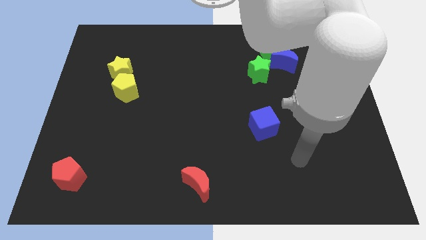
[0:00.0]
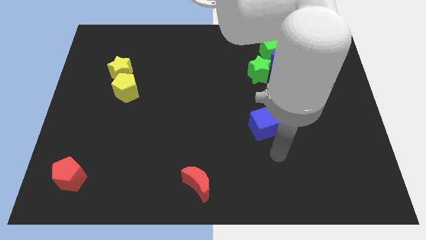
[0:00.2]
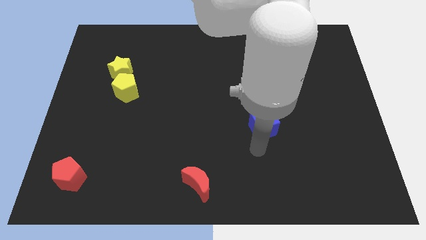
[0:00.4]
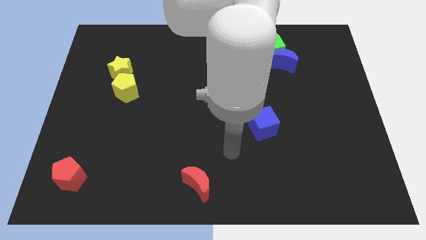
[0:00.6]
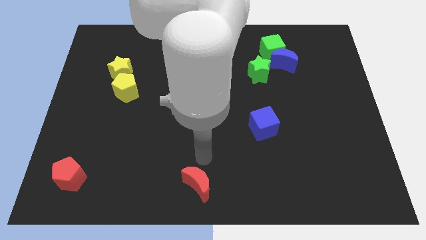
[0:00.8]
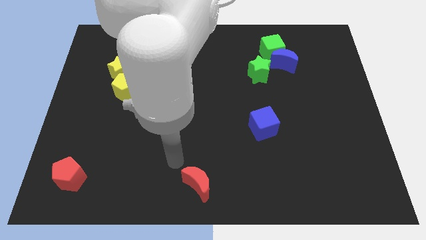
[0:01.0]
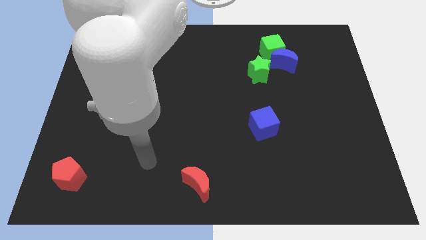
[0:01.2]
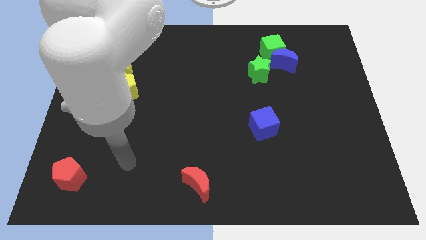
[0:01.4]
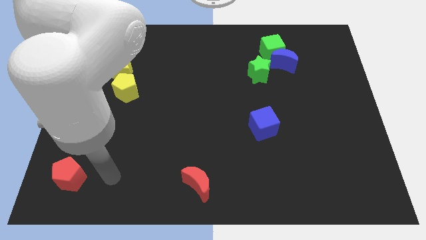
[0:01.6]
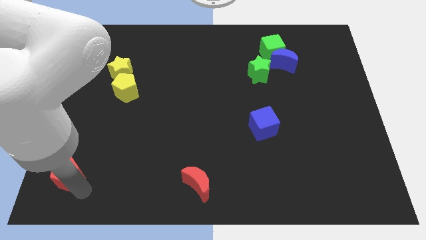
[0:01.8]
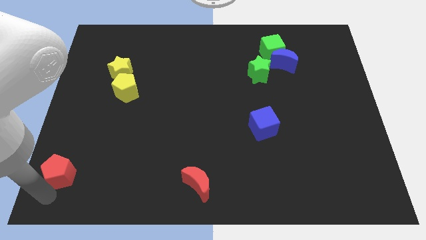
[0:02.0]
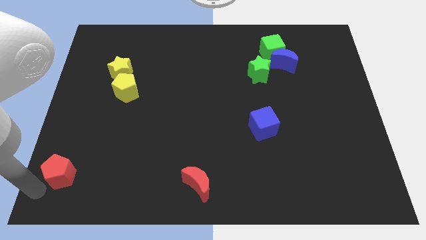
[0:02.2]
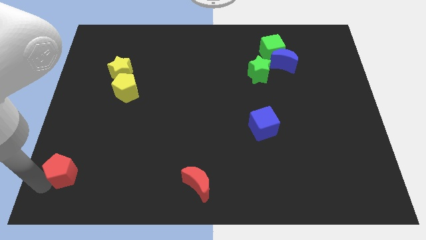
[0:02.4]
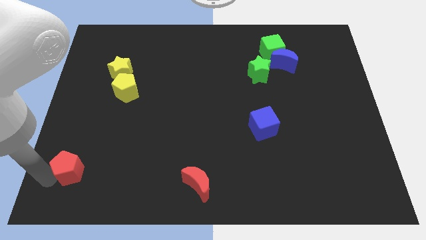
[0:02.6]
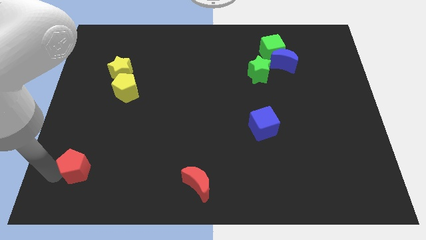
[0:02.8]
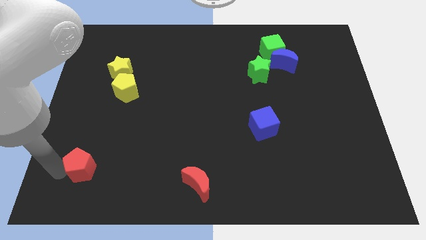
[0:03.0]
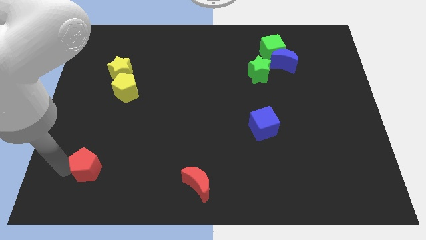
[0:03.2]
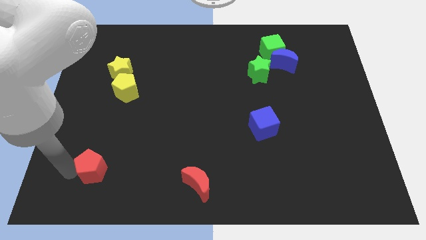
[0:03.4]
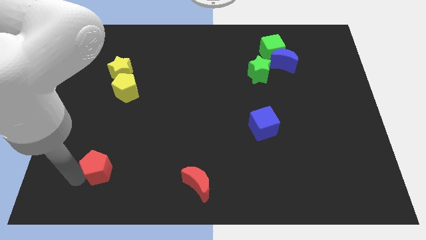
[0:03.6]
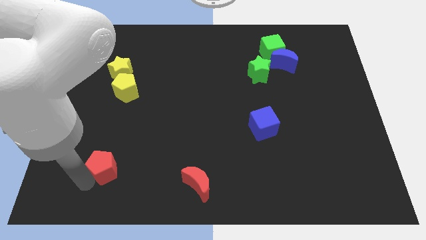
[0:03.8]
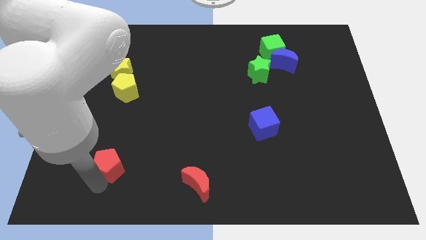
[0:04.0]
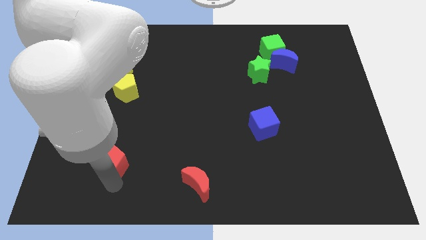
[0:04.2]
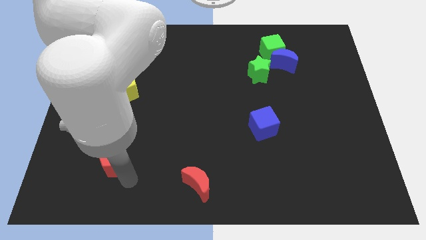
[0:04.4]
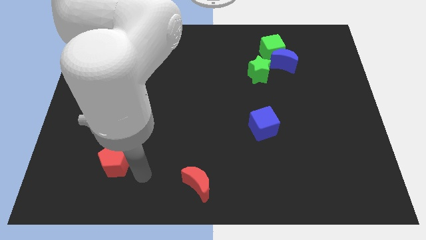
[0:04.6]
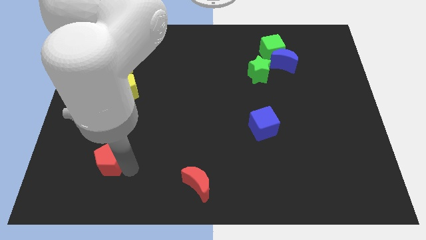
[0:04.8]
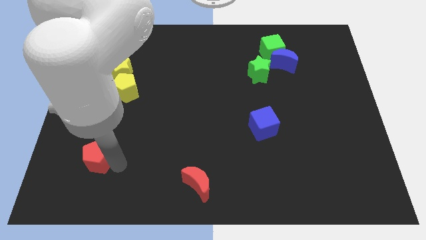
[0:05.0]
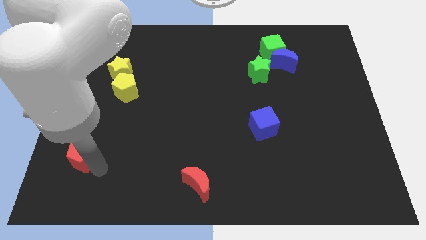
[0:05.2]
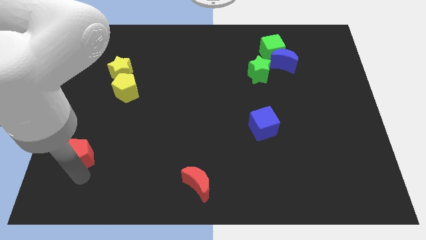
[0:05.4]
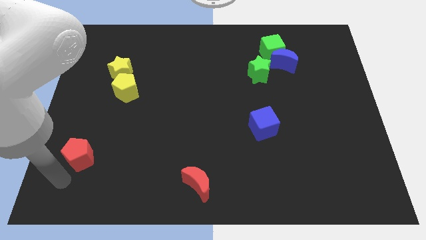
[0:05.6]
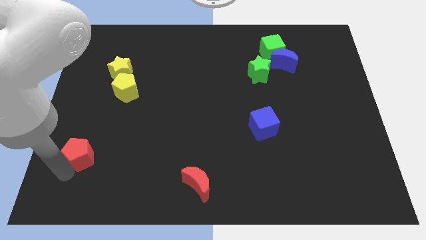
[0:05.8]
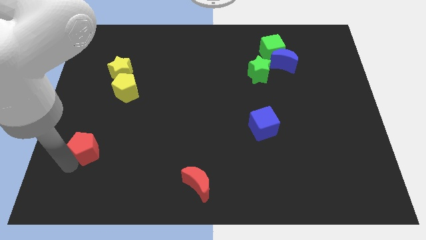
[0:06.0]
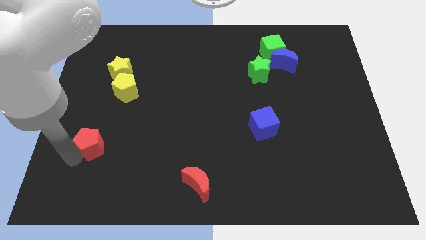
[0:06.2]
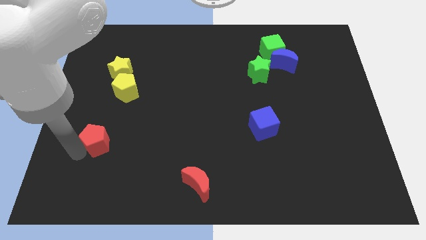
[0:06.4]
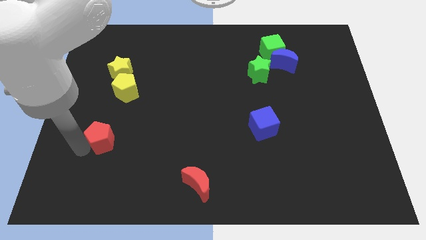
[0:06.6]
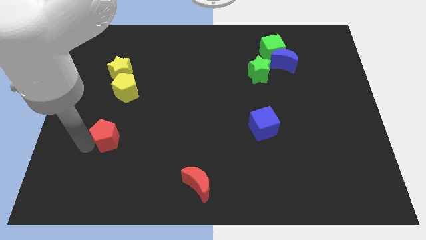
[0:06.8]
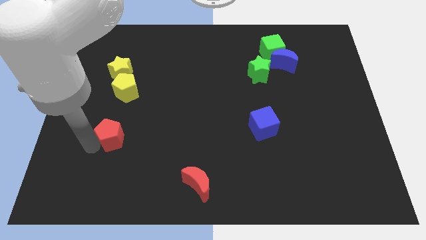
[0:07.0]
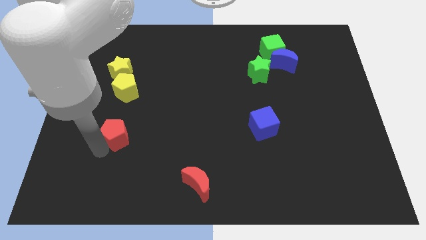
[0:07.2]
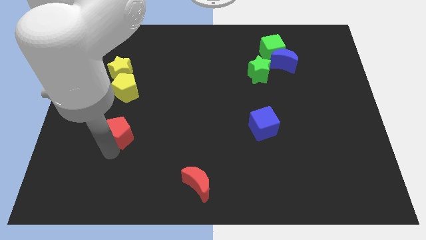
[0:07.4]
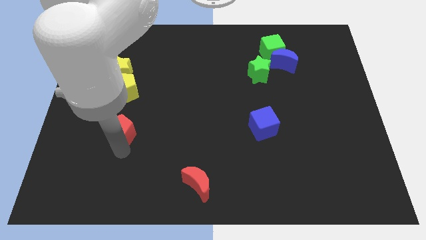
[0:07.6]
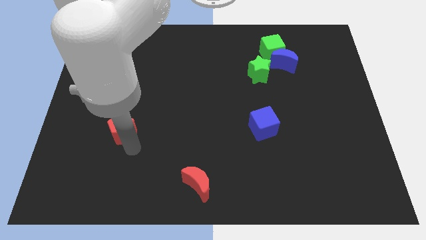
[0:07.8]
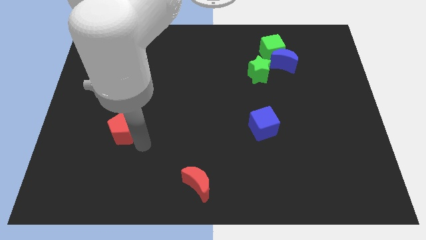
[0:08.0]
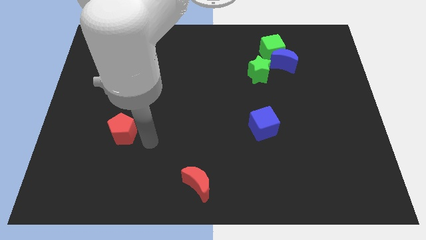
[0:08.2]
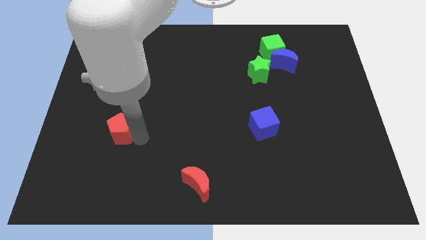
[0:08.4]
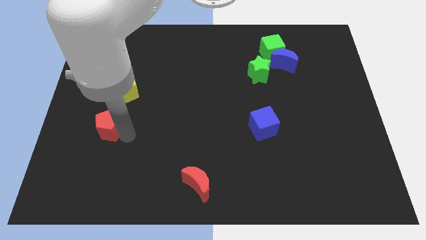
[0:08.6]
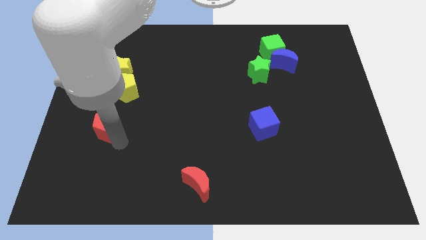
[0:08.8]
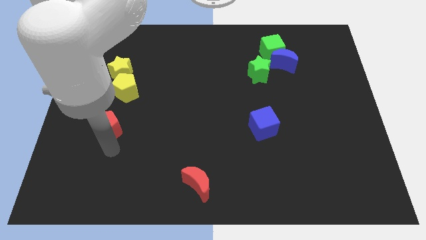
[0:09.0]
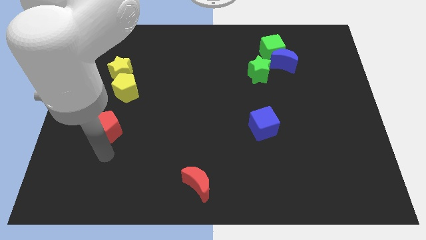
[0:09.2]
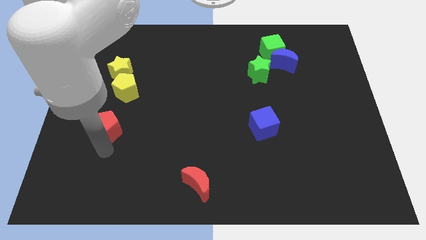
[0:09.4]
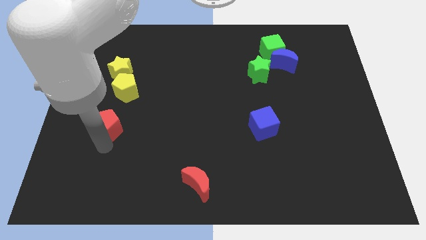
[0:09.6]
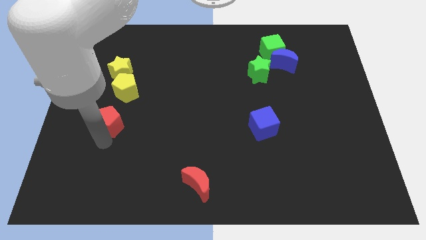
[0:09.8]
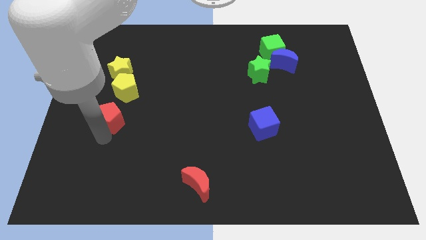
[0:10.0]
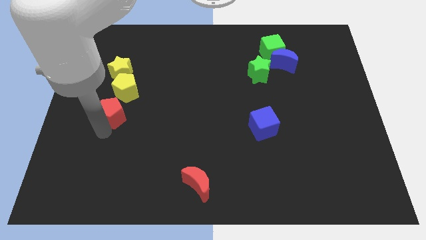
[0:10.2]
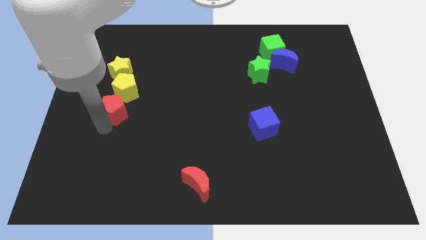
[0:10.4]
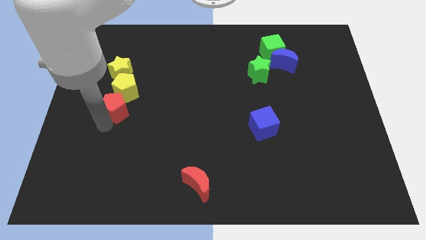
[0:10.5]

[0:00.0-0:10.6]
slide the red pentagon towards the yellow pentagon

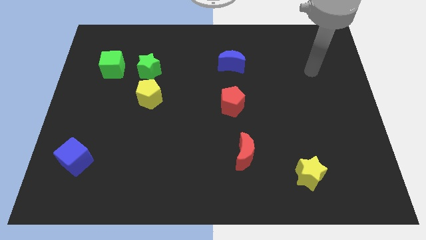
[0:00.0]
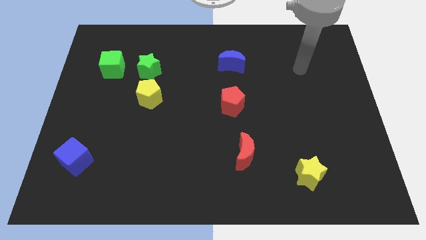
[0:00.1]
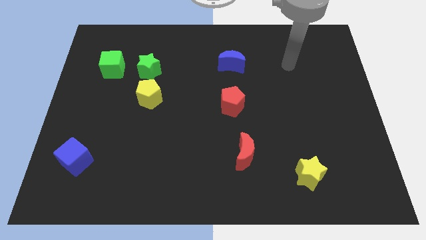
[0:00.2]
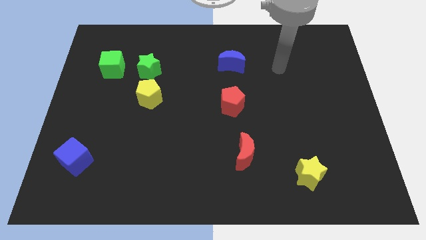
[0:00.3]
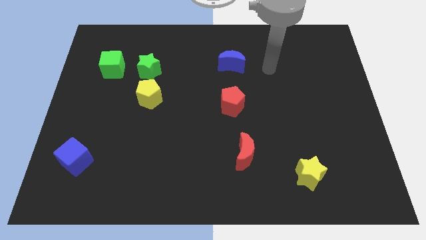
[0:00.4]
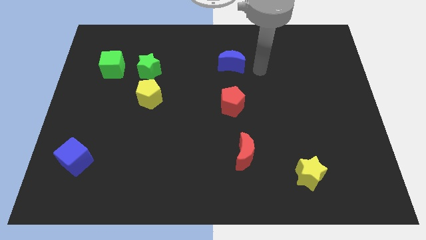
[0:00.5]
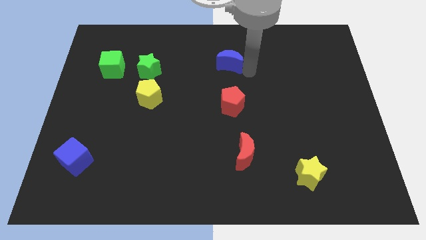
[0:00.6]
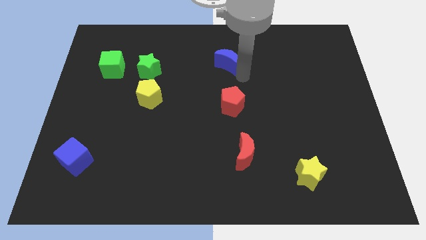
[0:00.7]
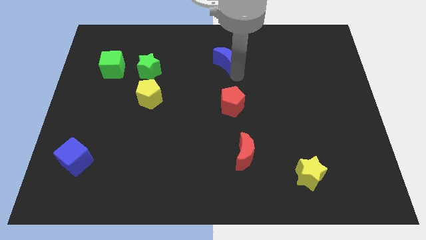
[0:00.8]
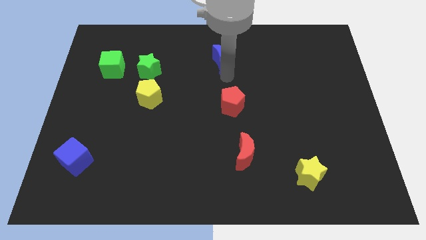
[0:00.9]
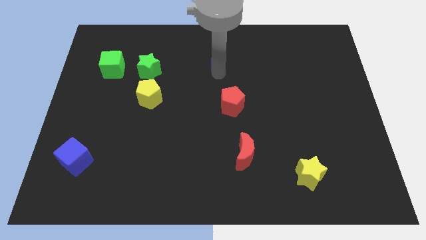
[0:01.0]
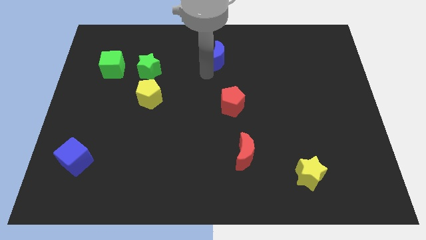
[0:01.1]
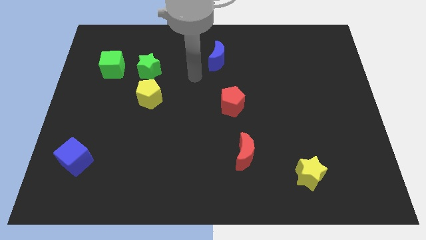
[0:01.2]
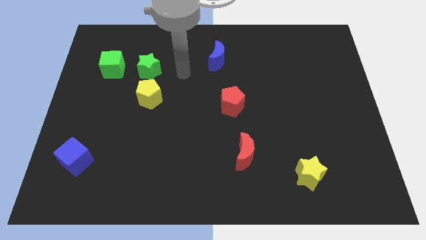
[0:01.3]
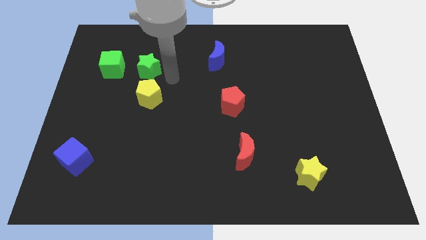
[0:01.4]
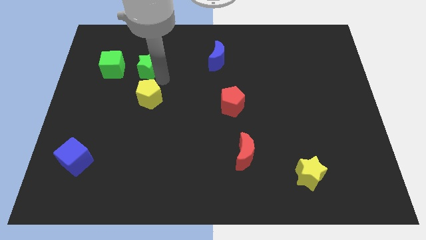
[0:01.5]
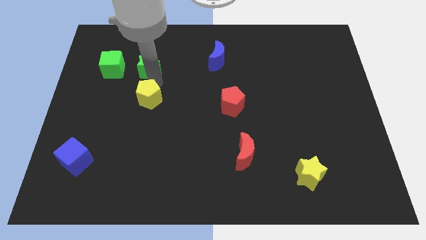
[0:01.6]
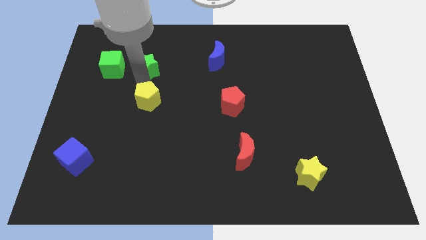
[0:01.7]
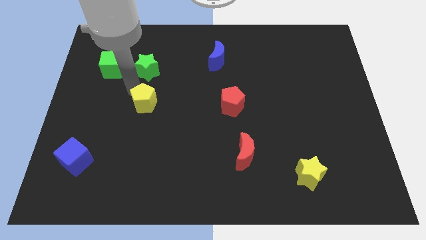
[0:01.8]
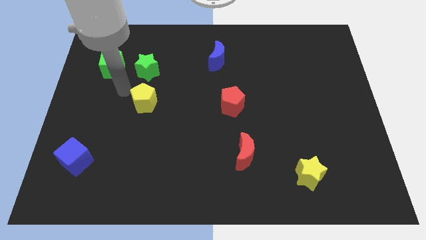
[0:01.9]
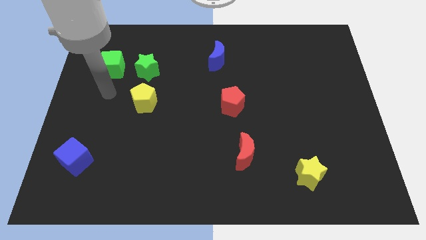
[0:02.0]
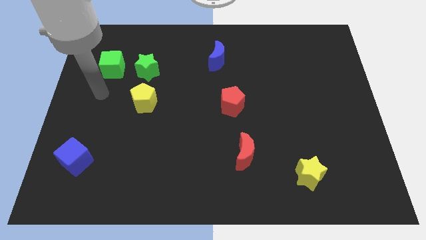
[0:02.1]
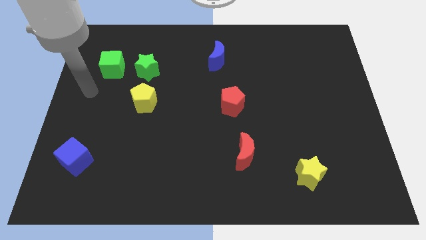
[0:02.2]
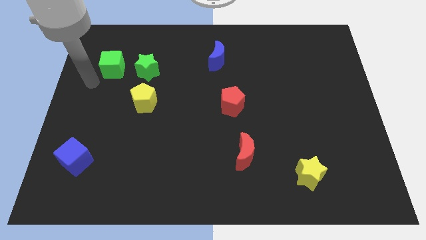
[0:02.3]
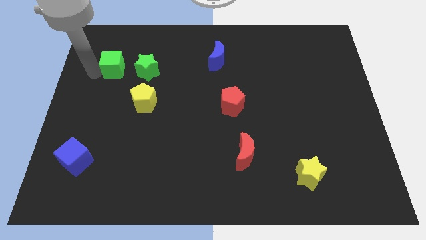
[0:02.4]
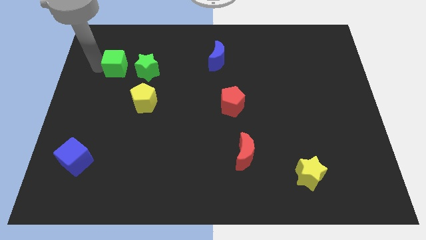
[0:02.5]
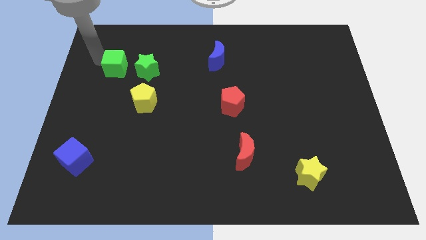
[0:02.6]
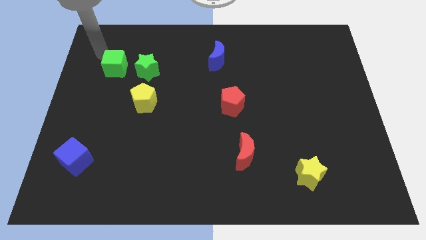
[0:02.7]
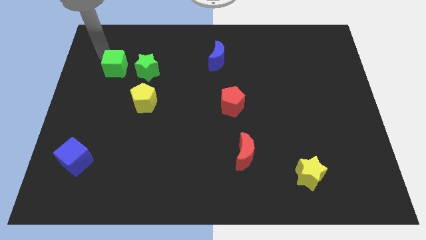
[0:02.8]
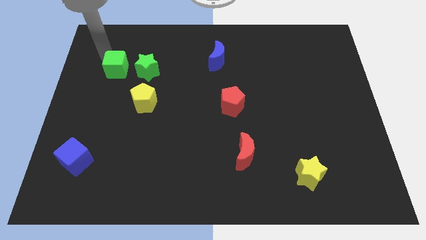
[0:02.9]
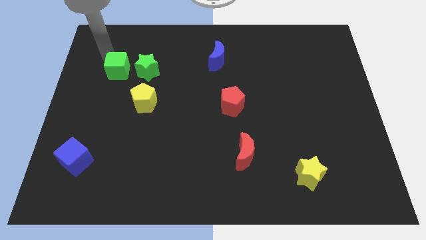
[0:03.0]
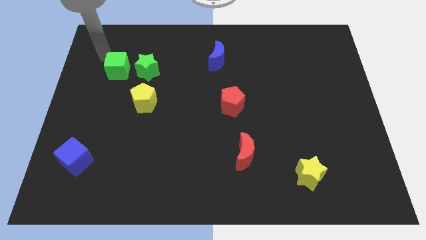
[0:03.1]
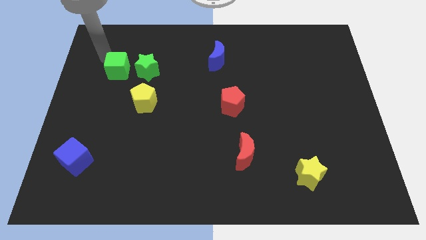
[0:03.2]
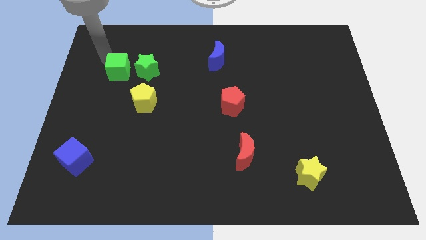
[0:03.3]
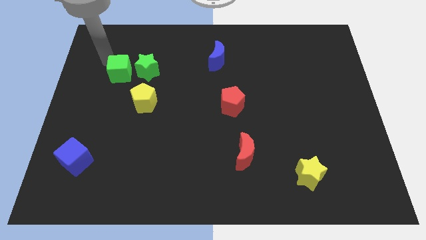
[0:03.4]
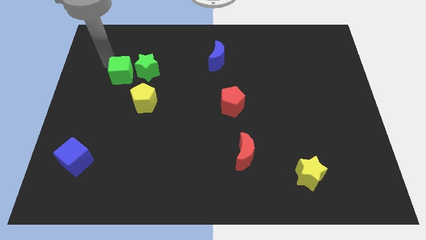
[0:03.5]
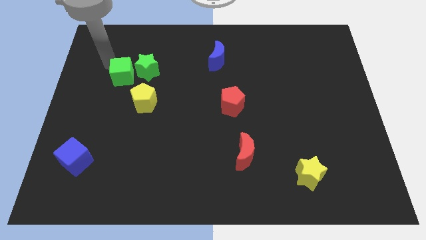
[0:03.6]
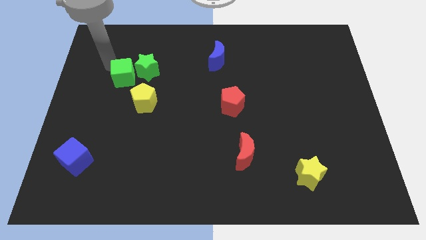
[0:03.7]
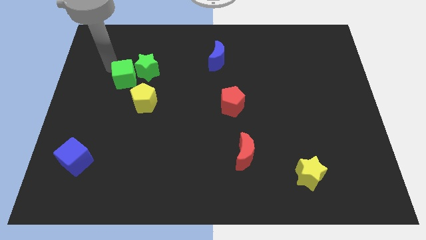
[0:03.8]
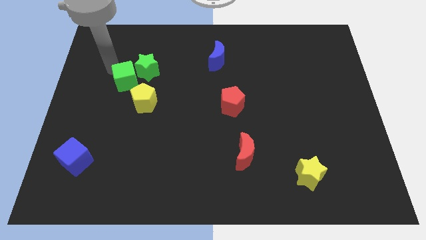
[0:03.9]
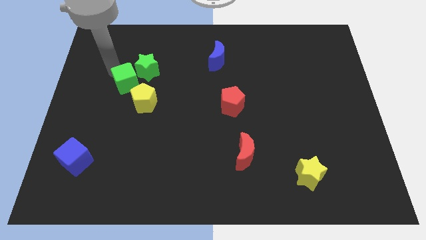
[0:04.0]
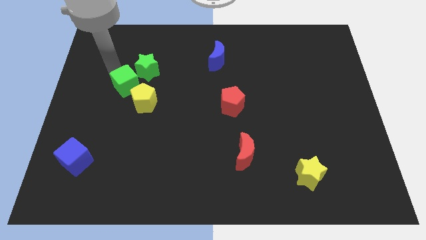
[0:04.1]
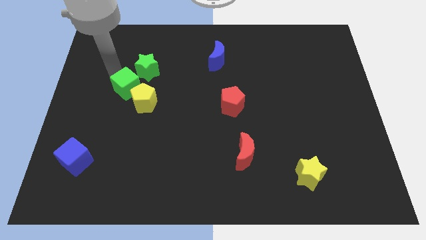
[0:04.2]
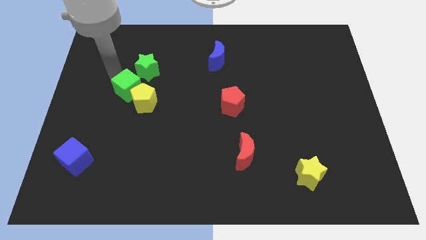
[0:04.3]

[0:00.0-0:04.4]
slide the green cube to the yellow pentagon
